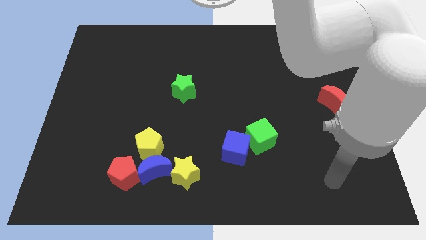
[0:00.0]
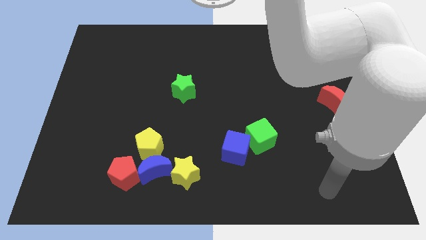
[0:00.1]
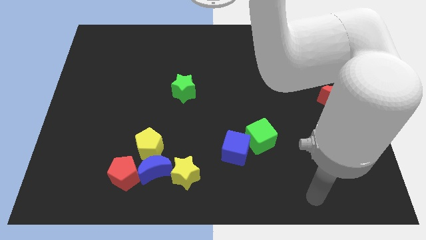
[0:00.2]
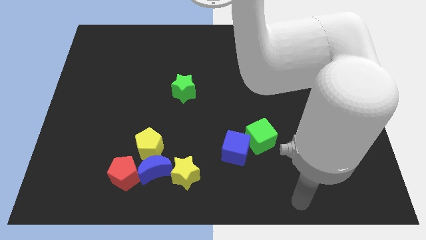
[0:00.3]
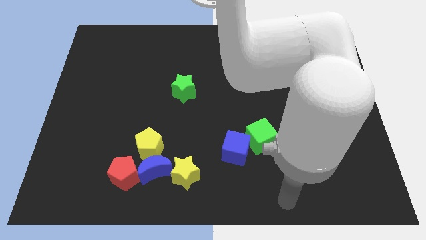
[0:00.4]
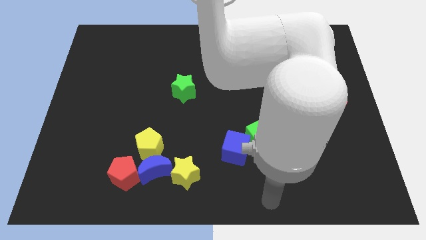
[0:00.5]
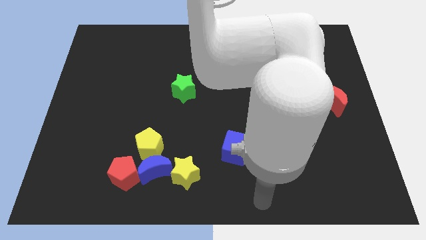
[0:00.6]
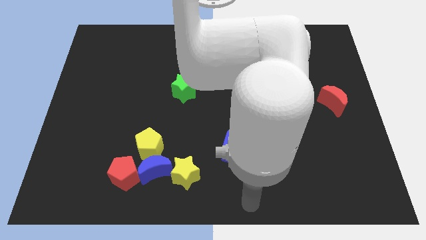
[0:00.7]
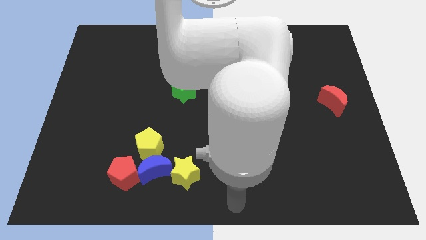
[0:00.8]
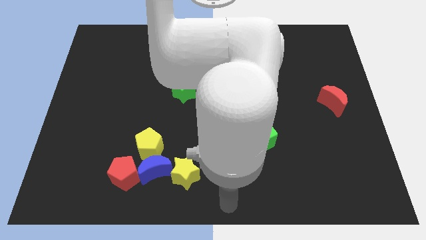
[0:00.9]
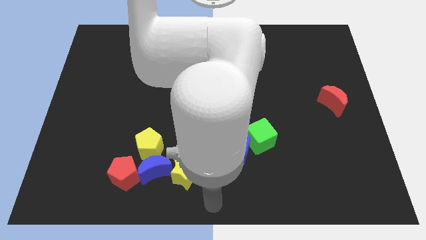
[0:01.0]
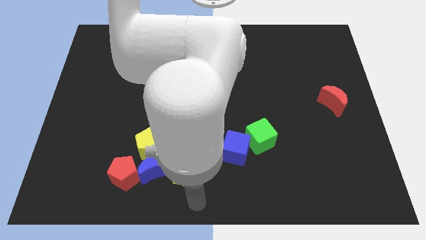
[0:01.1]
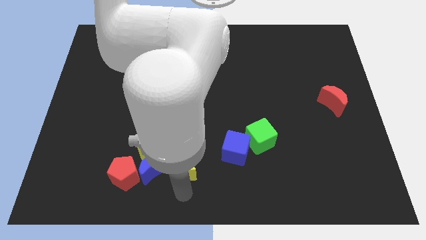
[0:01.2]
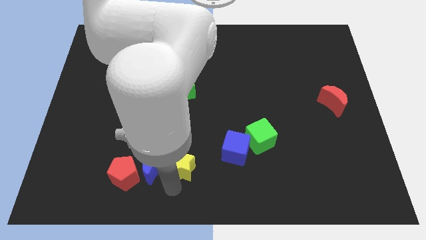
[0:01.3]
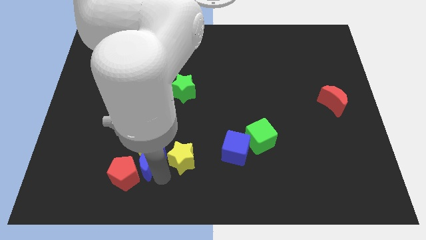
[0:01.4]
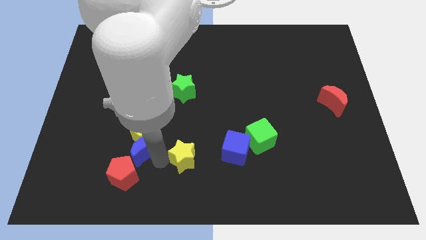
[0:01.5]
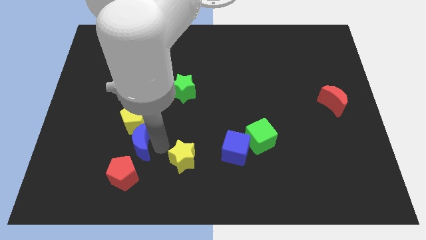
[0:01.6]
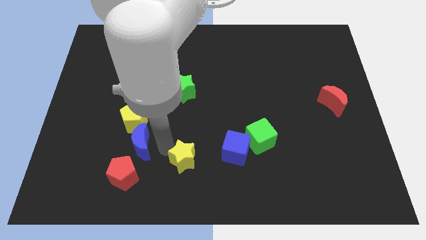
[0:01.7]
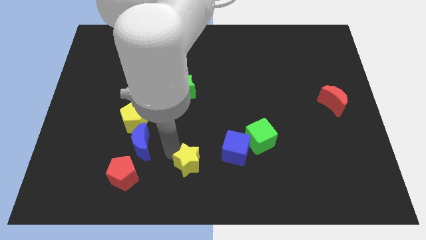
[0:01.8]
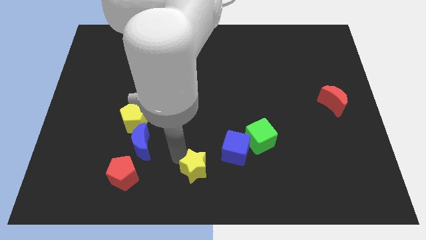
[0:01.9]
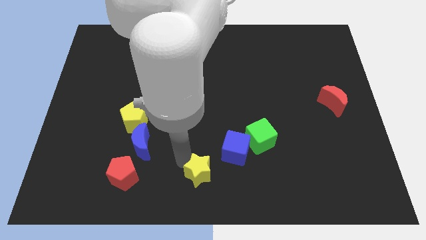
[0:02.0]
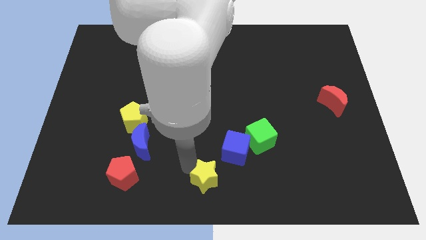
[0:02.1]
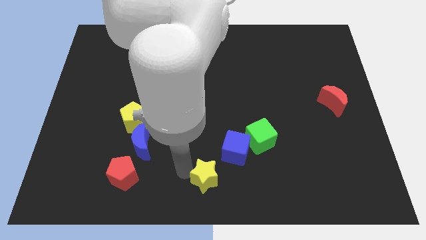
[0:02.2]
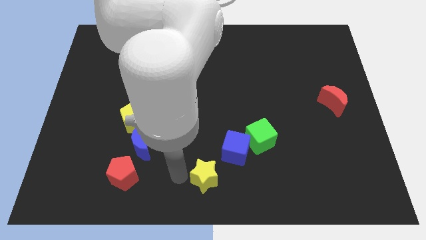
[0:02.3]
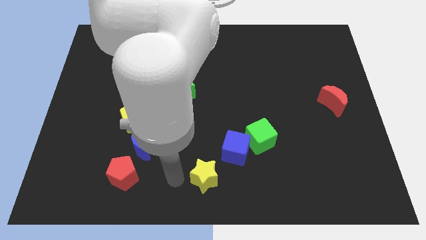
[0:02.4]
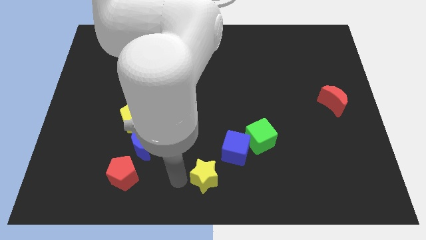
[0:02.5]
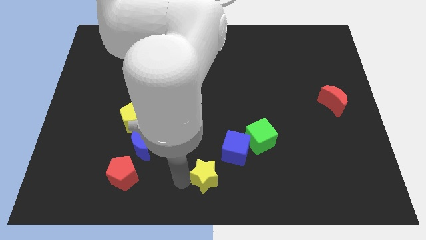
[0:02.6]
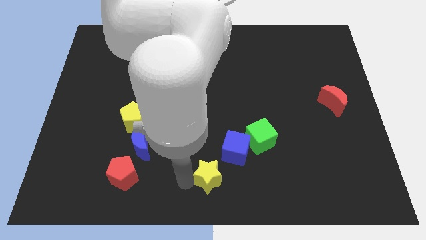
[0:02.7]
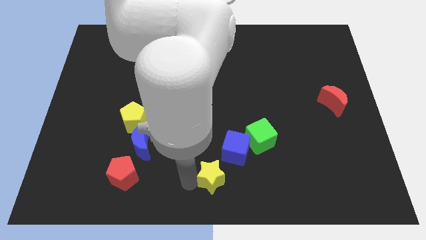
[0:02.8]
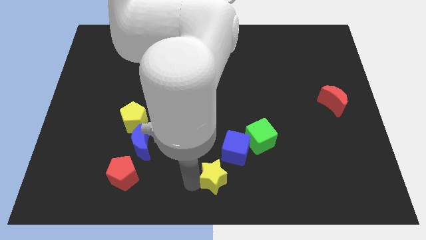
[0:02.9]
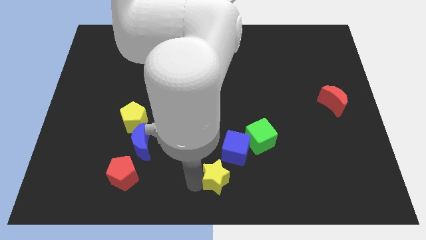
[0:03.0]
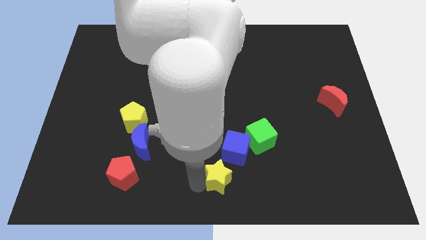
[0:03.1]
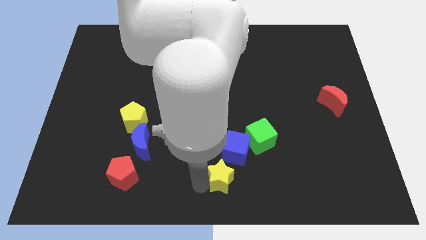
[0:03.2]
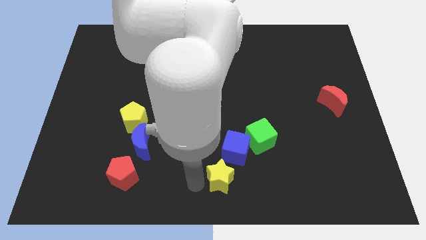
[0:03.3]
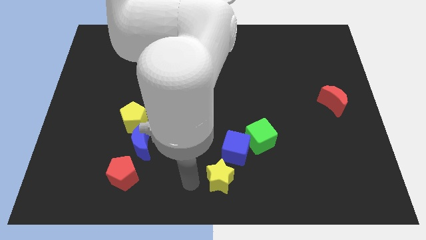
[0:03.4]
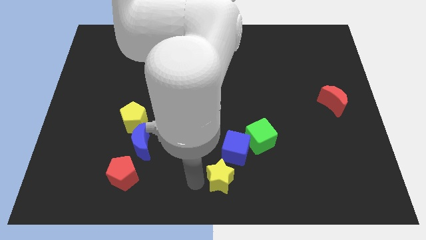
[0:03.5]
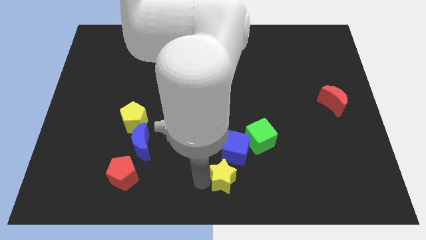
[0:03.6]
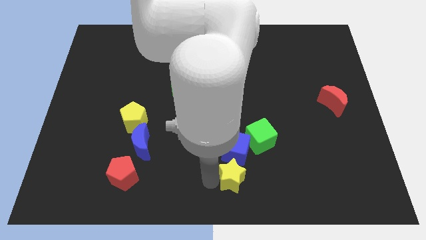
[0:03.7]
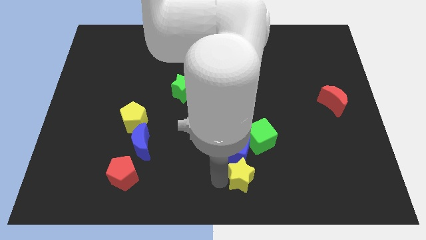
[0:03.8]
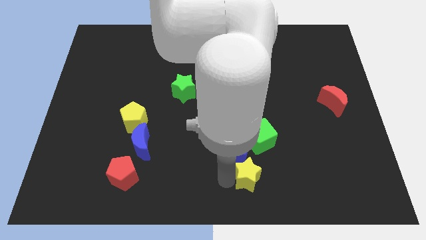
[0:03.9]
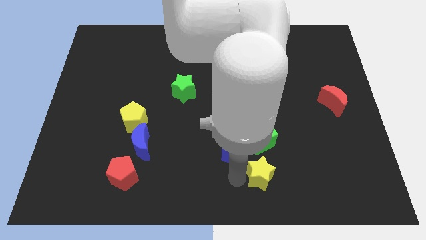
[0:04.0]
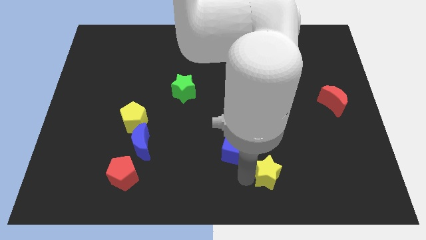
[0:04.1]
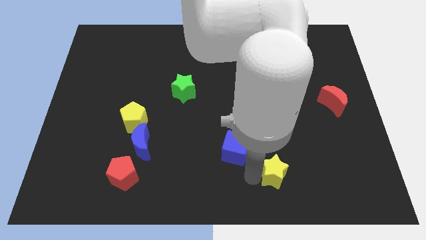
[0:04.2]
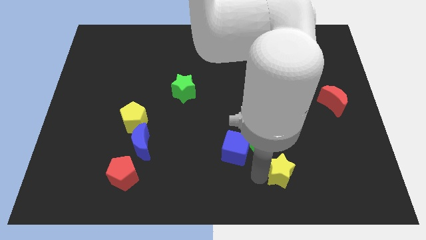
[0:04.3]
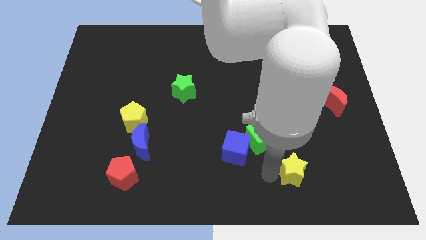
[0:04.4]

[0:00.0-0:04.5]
move the yellow star right

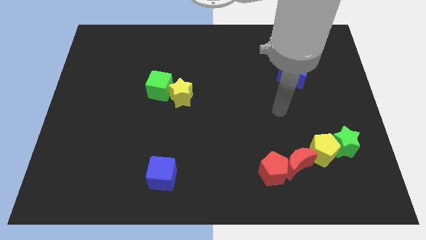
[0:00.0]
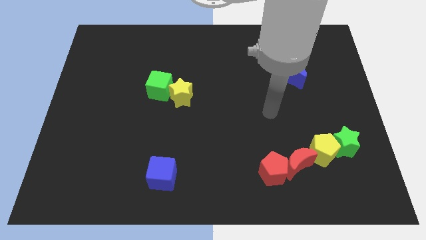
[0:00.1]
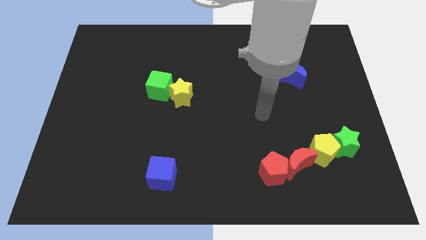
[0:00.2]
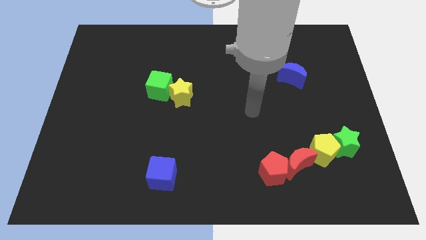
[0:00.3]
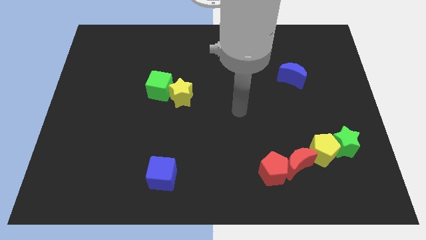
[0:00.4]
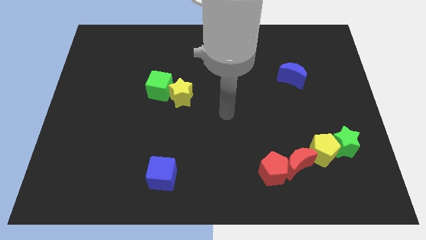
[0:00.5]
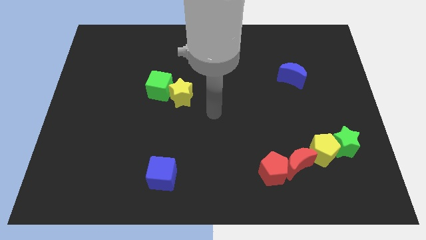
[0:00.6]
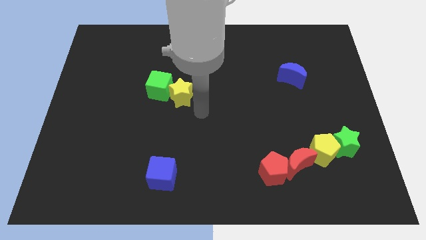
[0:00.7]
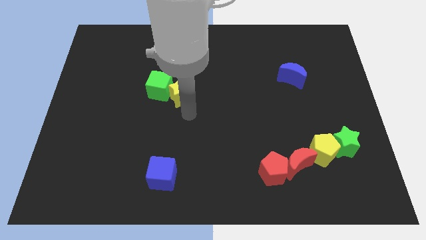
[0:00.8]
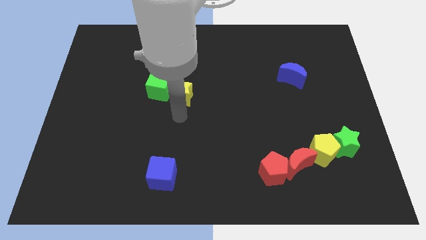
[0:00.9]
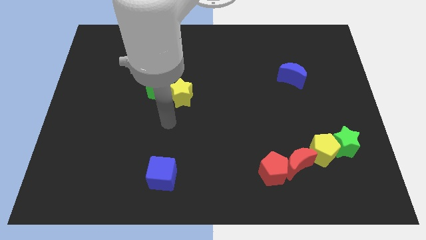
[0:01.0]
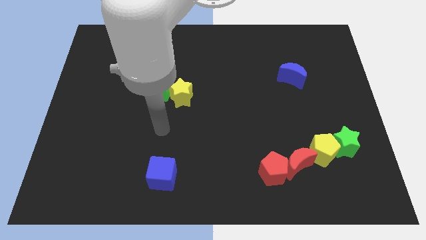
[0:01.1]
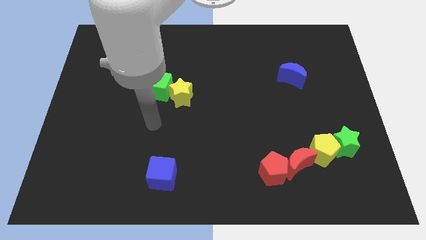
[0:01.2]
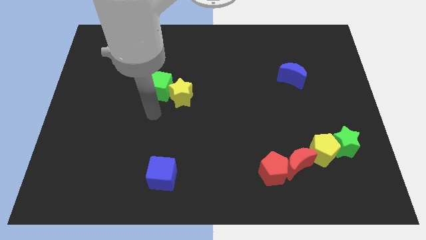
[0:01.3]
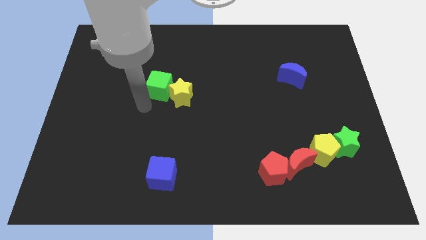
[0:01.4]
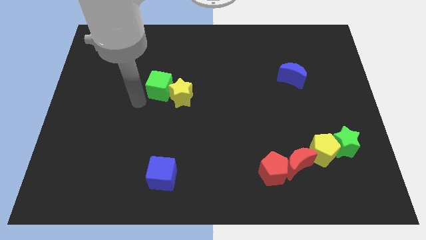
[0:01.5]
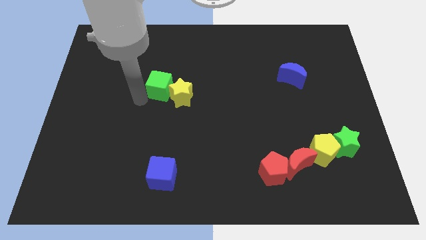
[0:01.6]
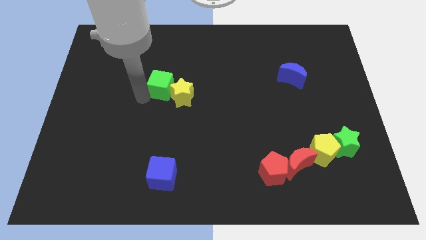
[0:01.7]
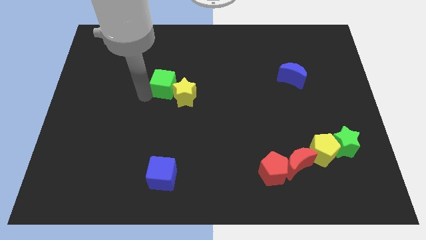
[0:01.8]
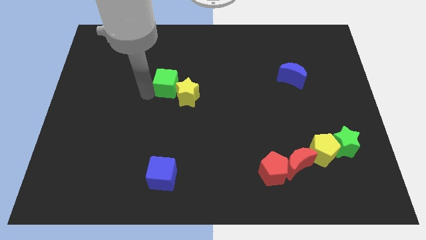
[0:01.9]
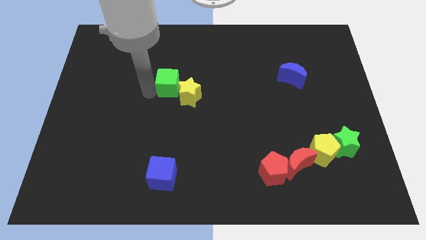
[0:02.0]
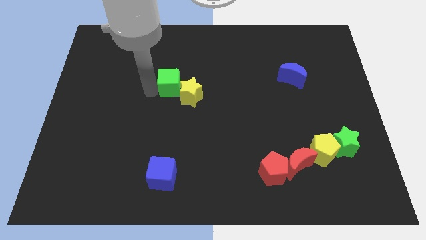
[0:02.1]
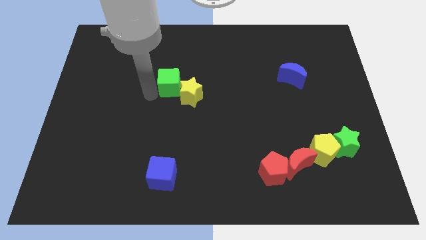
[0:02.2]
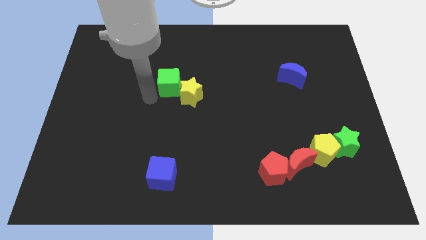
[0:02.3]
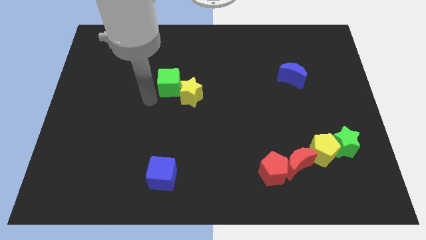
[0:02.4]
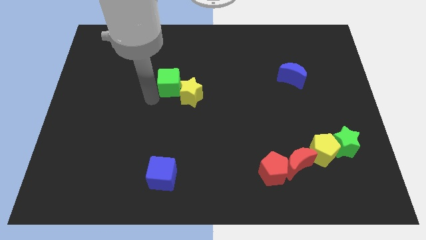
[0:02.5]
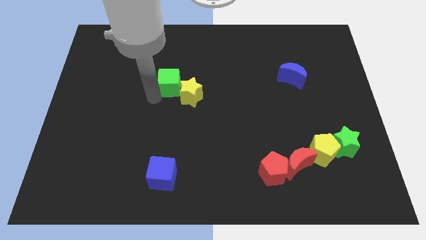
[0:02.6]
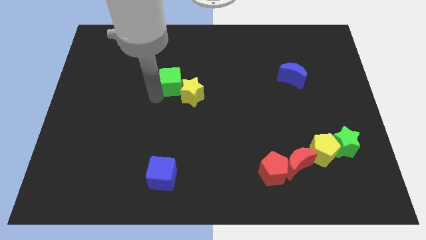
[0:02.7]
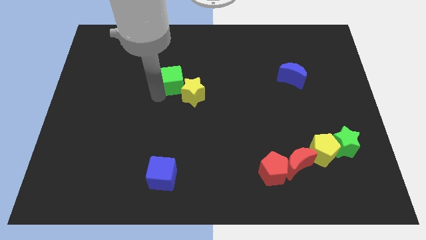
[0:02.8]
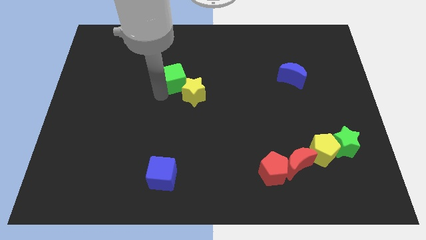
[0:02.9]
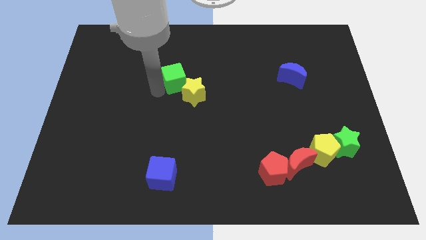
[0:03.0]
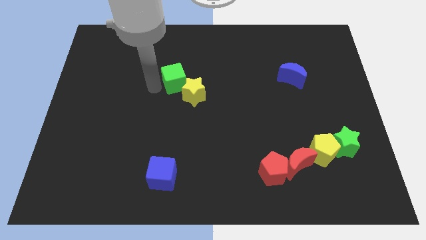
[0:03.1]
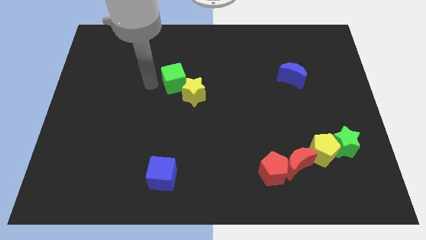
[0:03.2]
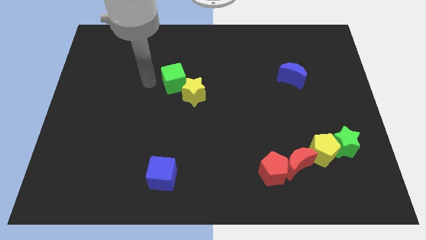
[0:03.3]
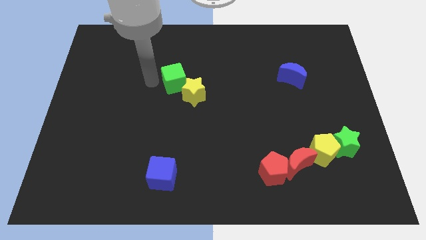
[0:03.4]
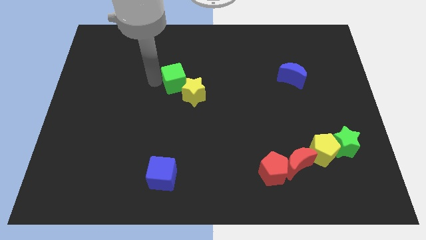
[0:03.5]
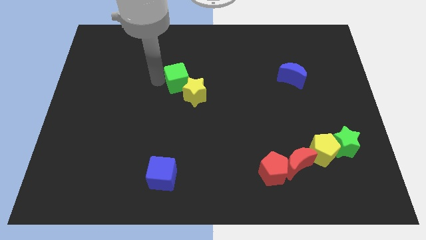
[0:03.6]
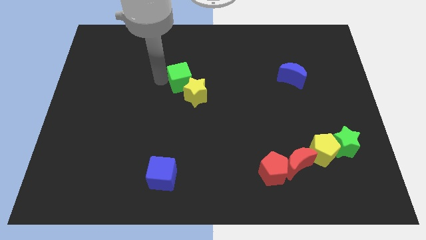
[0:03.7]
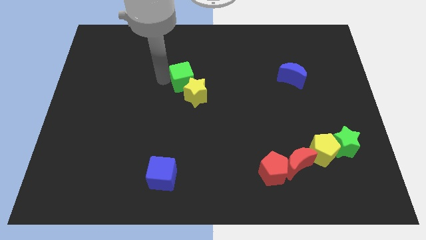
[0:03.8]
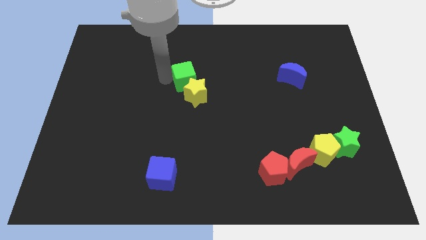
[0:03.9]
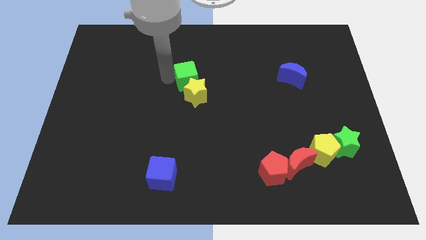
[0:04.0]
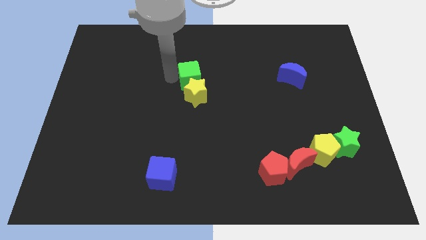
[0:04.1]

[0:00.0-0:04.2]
slightly slide the green cube to the right
